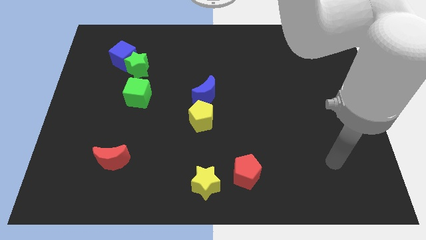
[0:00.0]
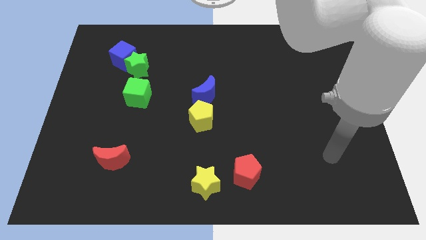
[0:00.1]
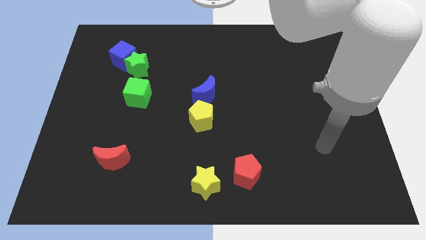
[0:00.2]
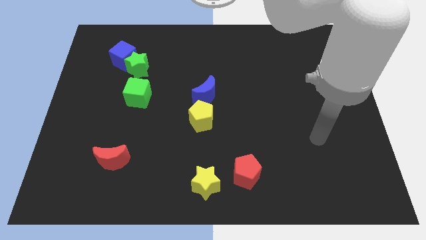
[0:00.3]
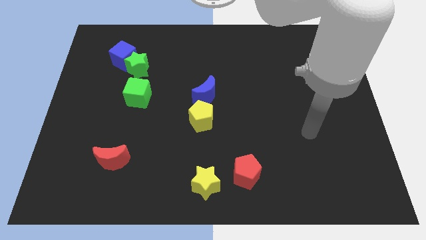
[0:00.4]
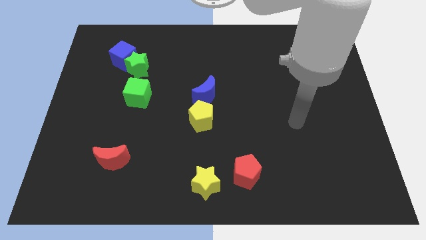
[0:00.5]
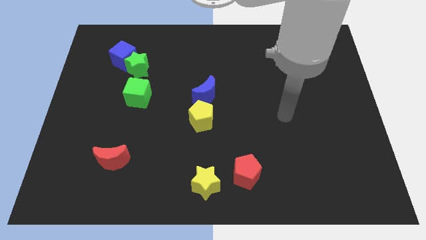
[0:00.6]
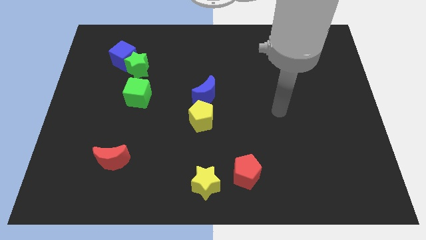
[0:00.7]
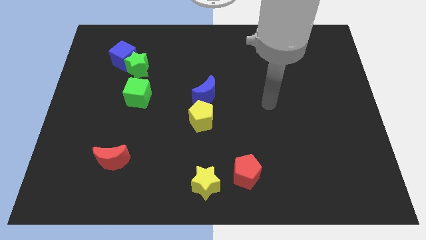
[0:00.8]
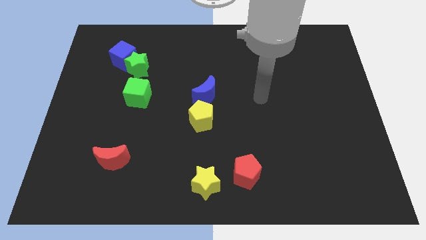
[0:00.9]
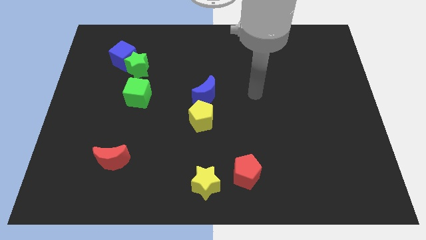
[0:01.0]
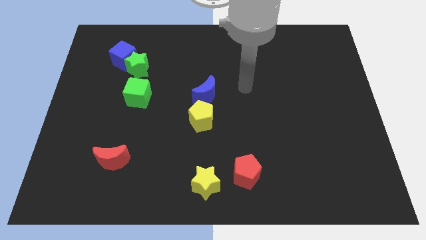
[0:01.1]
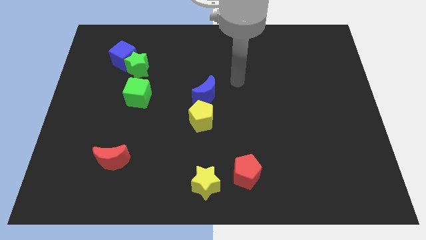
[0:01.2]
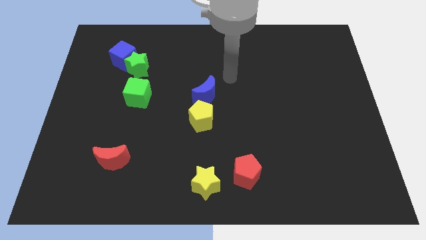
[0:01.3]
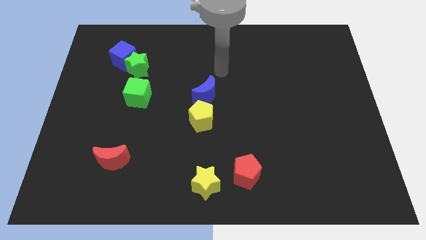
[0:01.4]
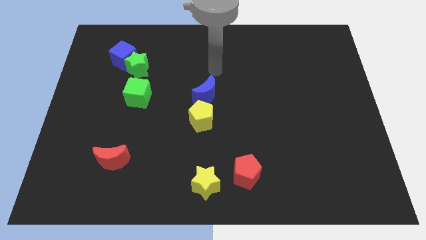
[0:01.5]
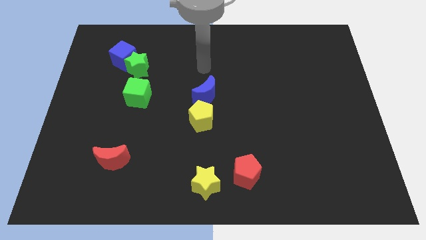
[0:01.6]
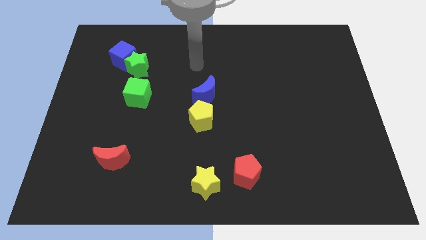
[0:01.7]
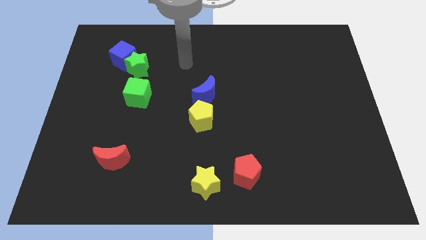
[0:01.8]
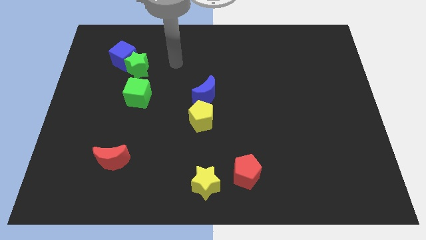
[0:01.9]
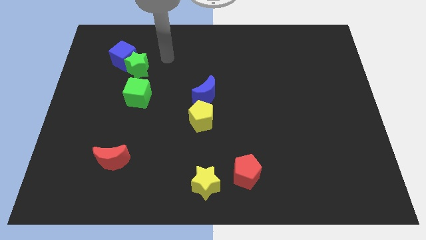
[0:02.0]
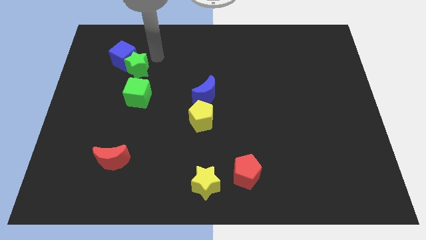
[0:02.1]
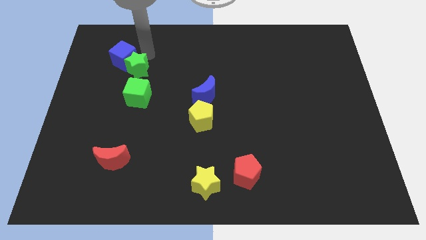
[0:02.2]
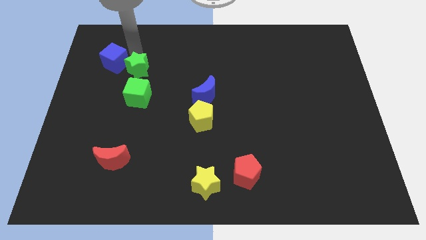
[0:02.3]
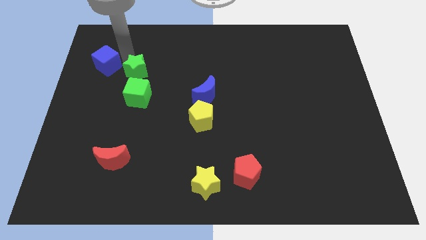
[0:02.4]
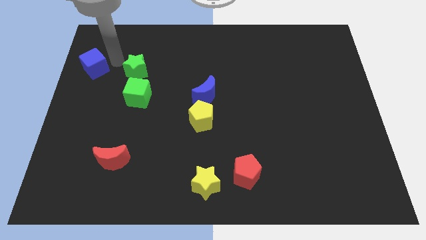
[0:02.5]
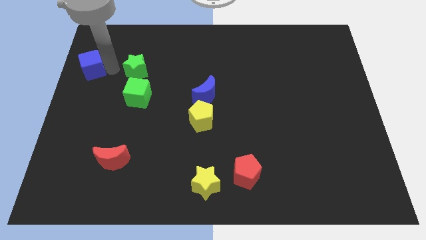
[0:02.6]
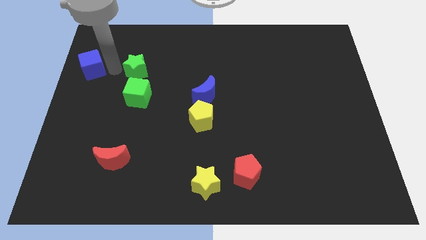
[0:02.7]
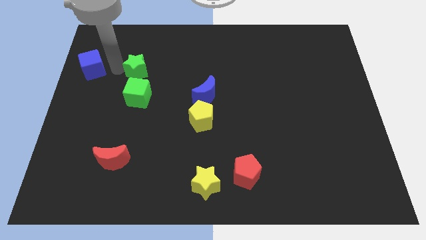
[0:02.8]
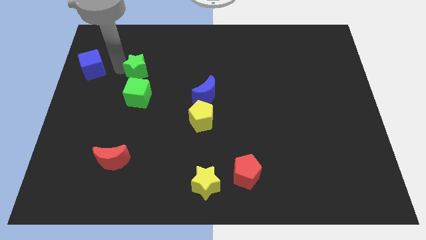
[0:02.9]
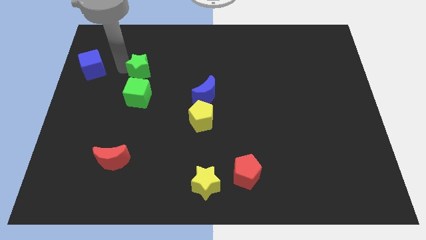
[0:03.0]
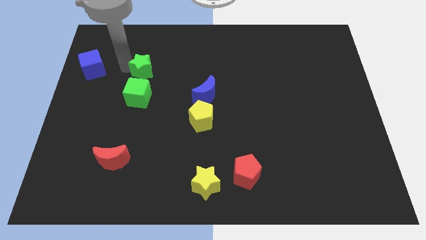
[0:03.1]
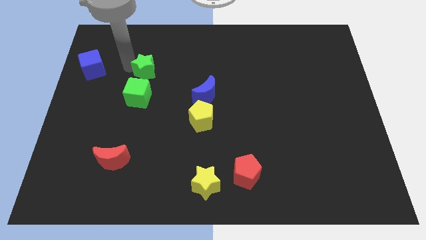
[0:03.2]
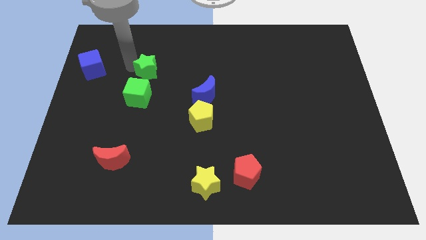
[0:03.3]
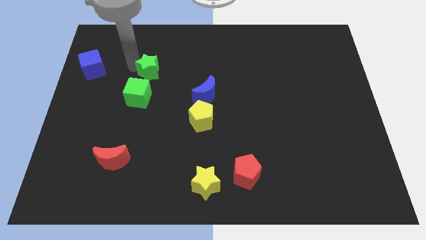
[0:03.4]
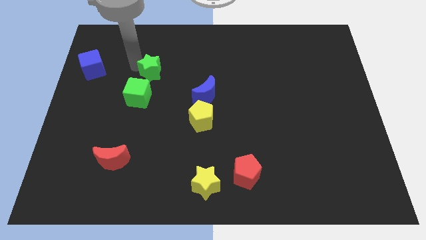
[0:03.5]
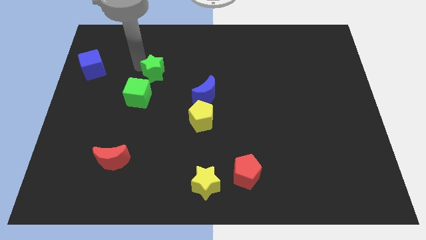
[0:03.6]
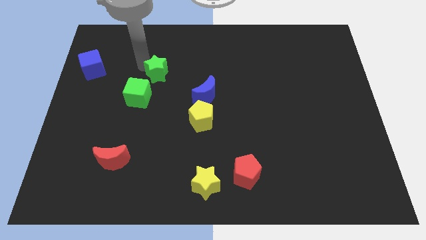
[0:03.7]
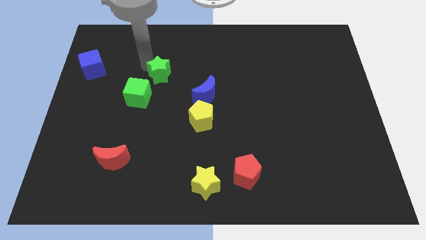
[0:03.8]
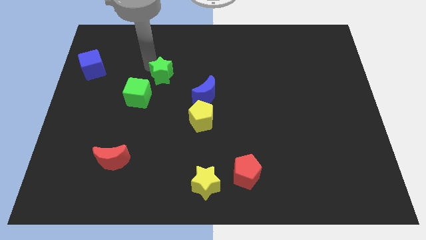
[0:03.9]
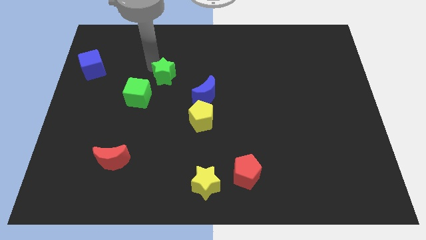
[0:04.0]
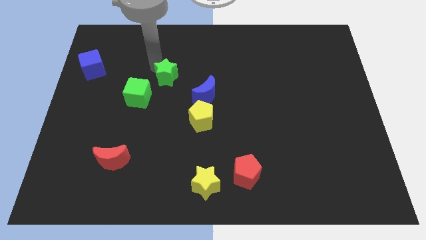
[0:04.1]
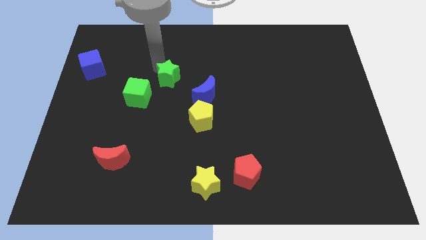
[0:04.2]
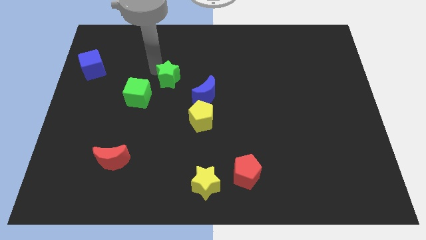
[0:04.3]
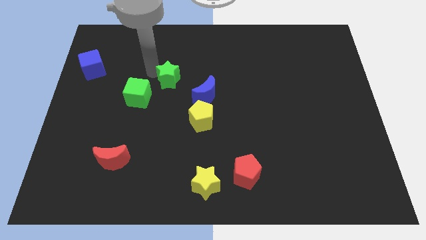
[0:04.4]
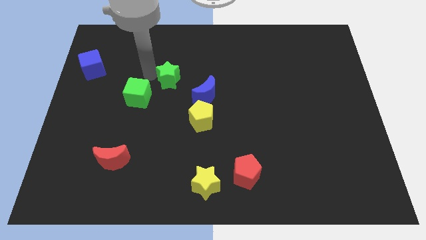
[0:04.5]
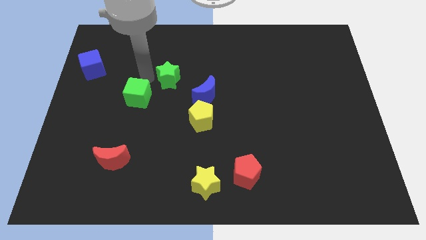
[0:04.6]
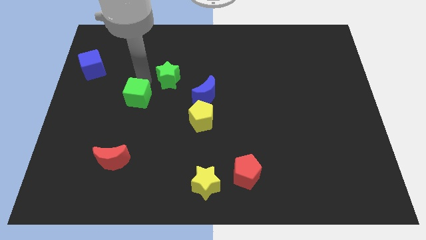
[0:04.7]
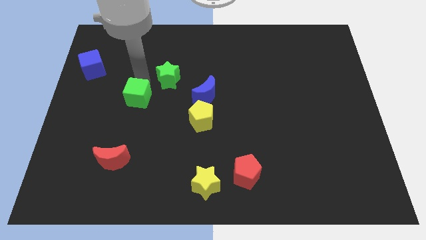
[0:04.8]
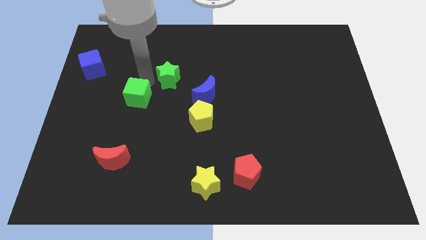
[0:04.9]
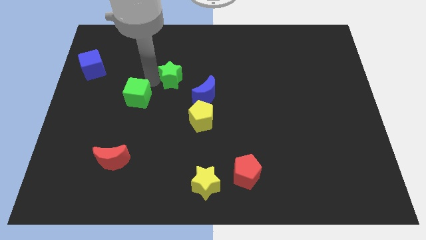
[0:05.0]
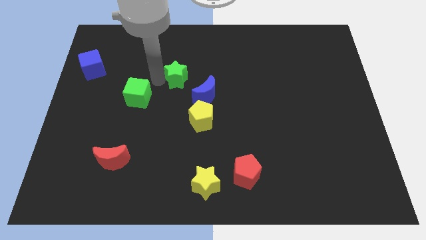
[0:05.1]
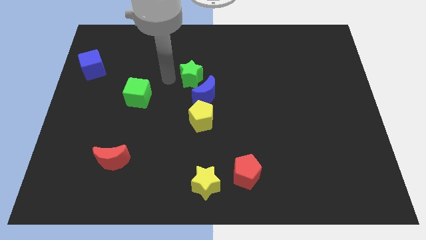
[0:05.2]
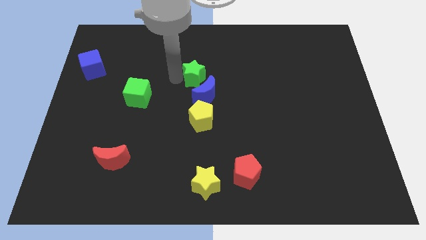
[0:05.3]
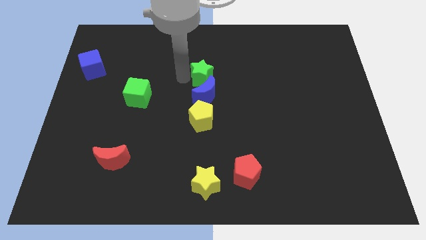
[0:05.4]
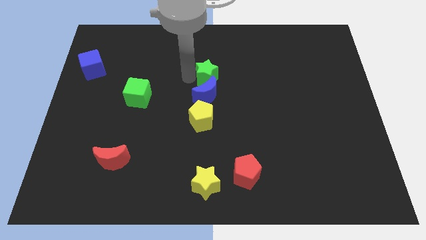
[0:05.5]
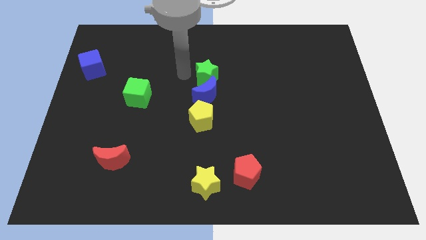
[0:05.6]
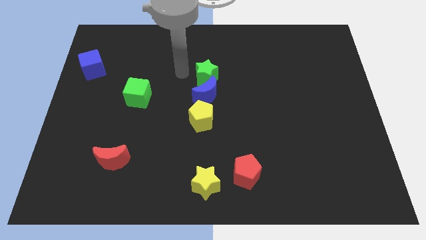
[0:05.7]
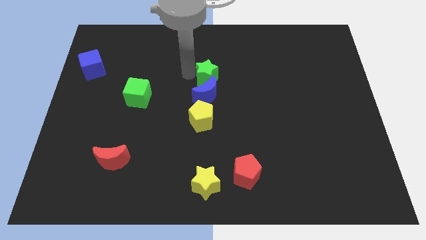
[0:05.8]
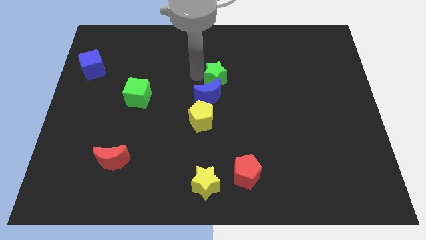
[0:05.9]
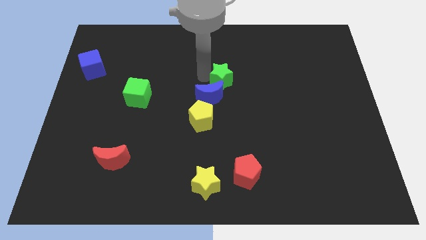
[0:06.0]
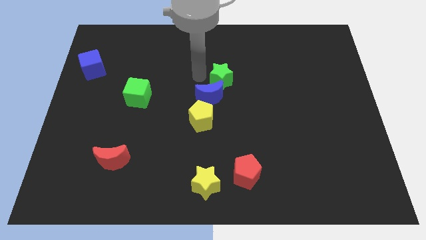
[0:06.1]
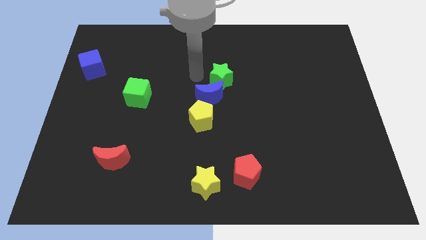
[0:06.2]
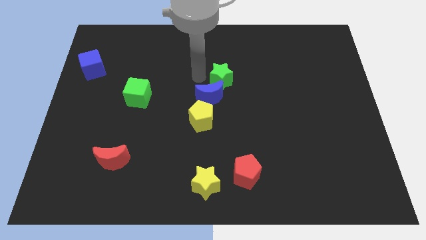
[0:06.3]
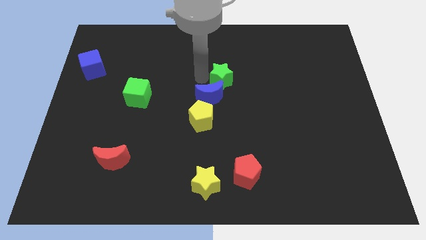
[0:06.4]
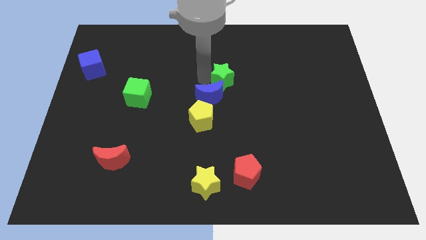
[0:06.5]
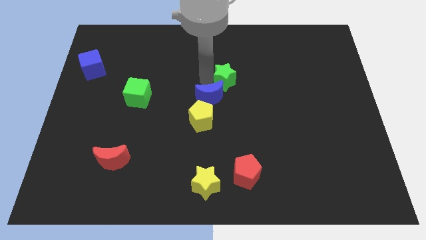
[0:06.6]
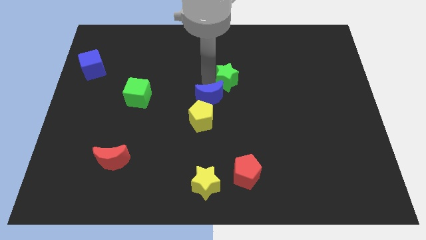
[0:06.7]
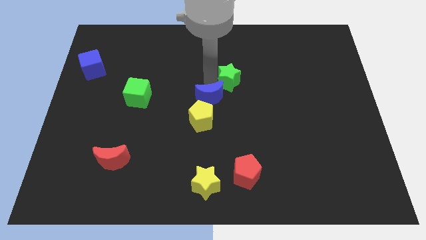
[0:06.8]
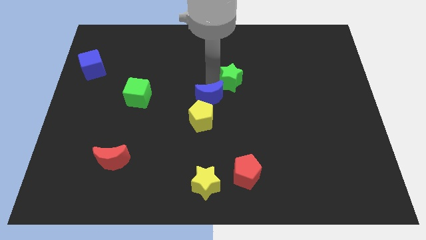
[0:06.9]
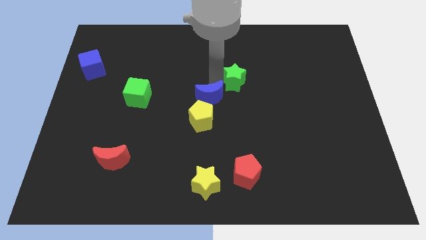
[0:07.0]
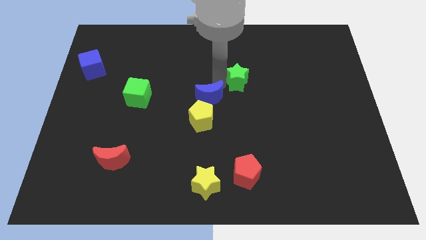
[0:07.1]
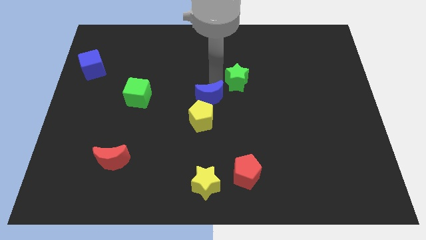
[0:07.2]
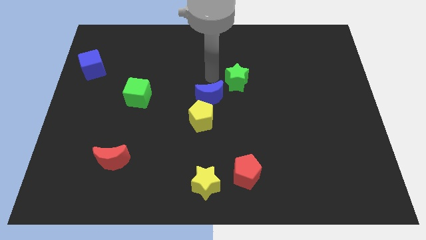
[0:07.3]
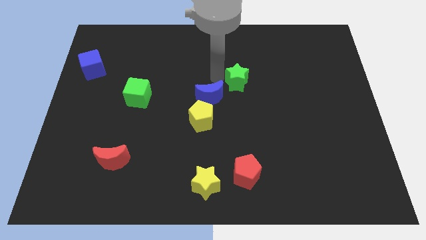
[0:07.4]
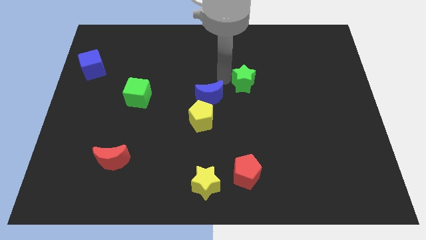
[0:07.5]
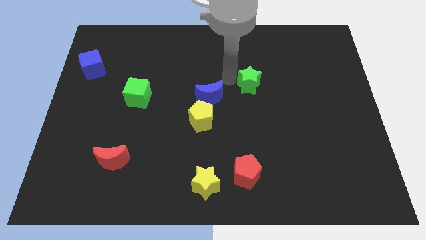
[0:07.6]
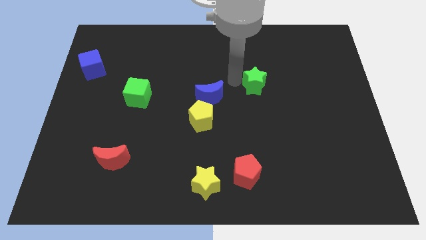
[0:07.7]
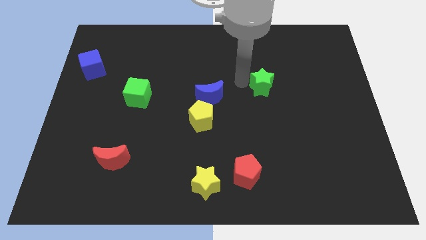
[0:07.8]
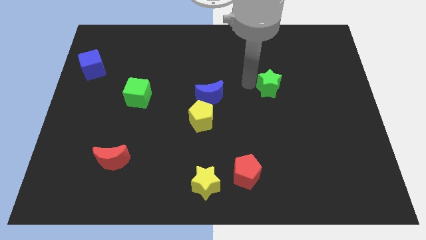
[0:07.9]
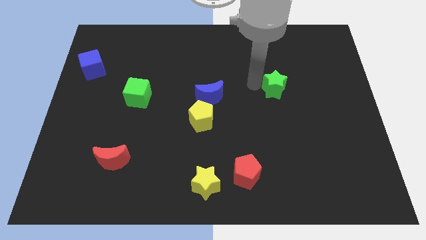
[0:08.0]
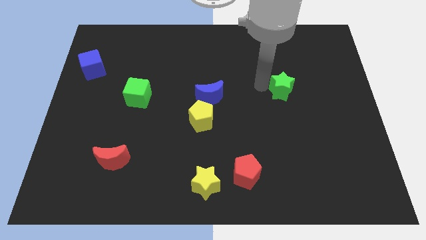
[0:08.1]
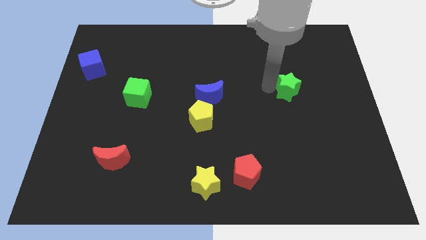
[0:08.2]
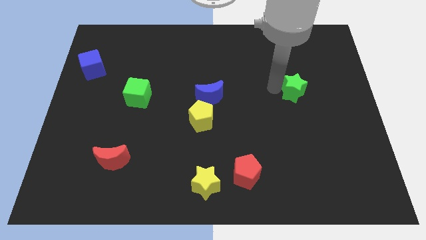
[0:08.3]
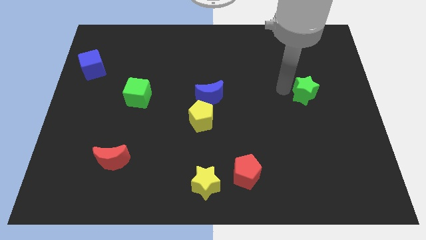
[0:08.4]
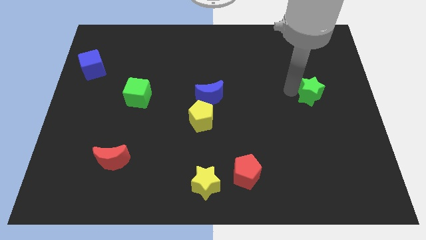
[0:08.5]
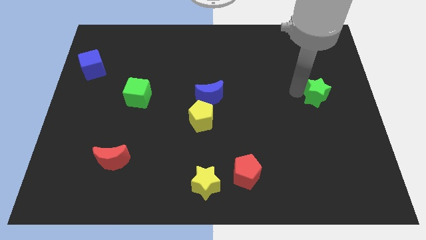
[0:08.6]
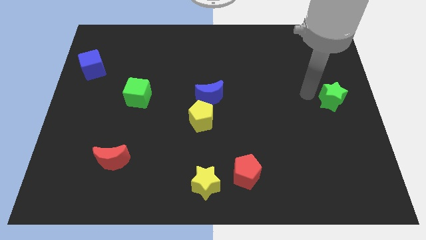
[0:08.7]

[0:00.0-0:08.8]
push the green star to the center right
